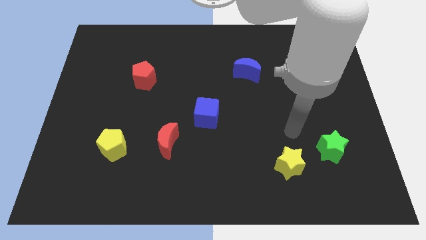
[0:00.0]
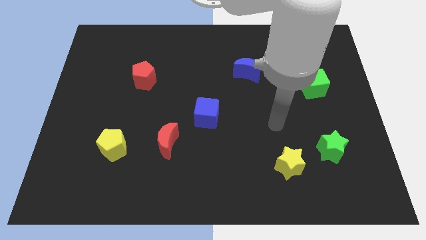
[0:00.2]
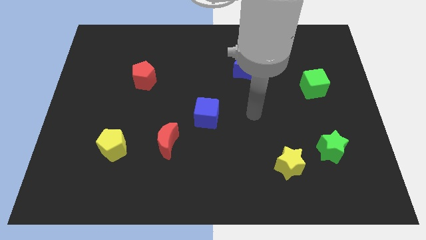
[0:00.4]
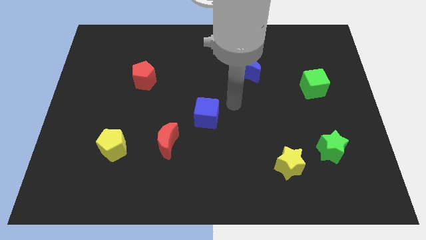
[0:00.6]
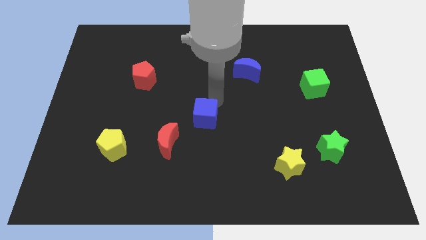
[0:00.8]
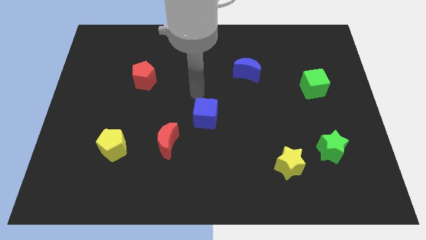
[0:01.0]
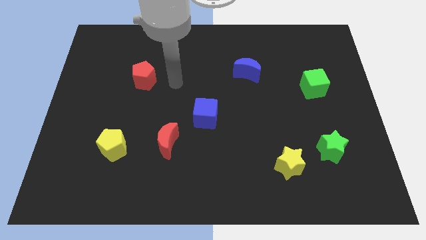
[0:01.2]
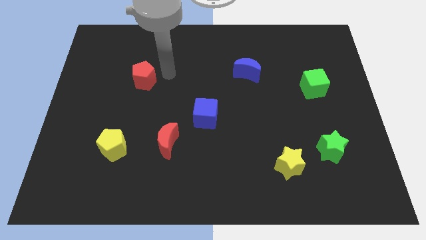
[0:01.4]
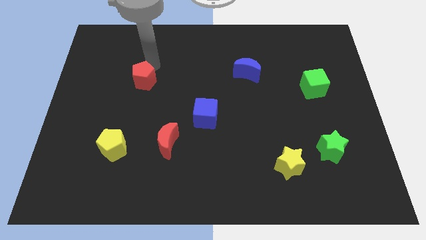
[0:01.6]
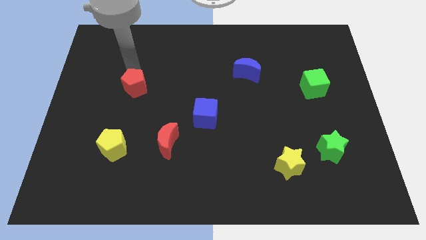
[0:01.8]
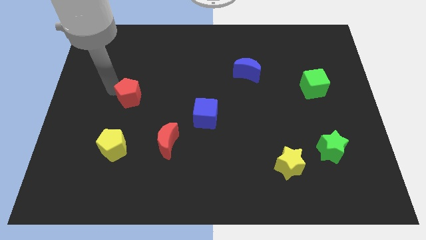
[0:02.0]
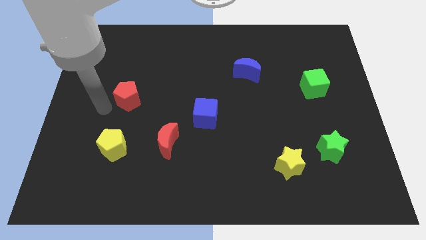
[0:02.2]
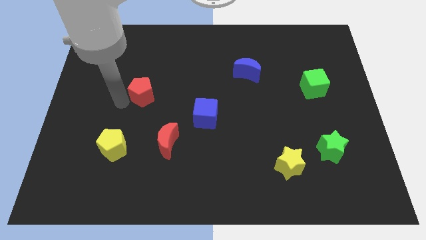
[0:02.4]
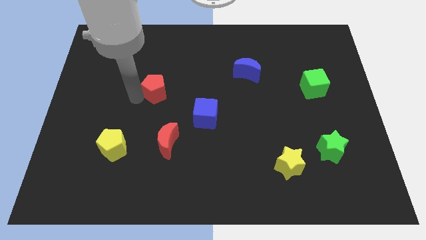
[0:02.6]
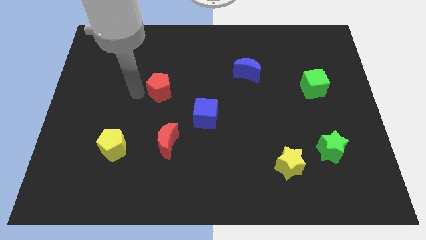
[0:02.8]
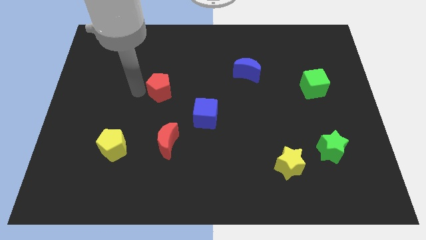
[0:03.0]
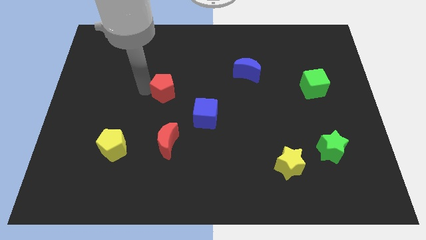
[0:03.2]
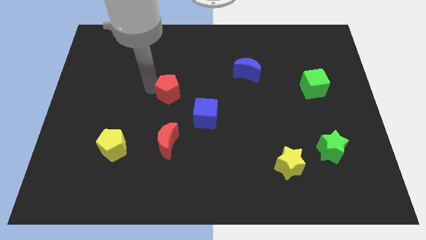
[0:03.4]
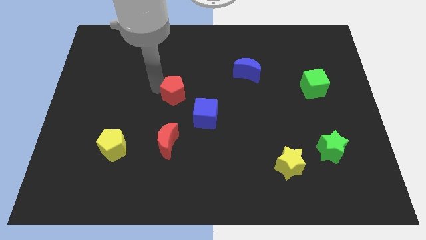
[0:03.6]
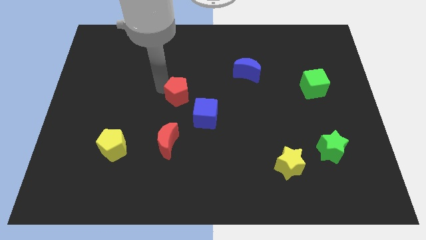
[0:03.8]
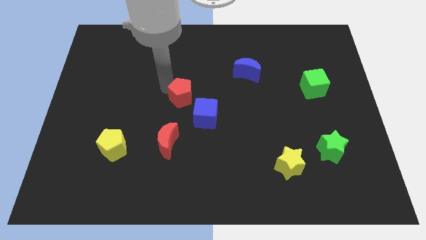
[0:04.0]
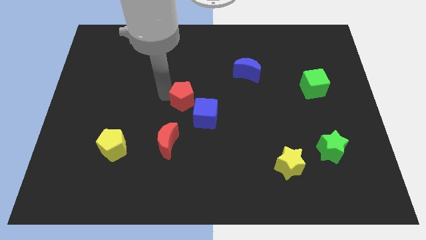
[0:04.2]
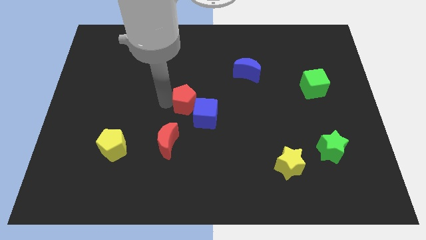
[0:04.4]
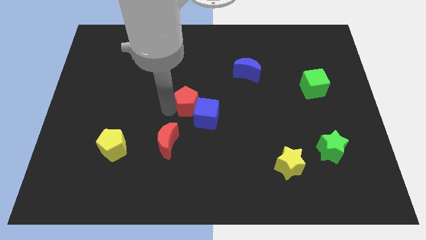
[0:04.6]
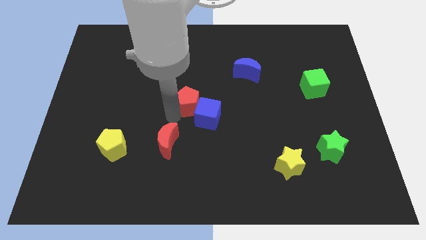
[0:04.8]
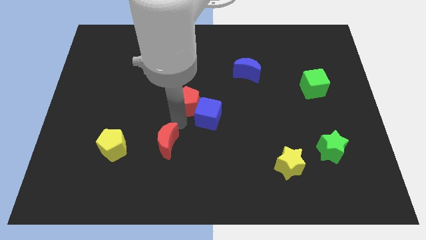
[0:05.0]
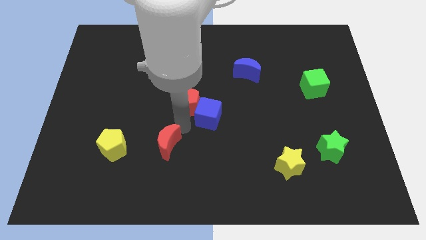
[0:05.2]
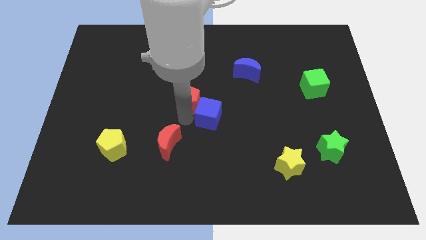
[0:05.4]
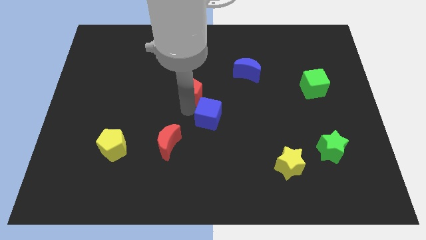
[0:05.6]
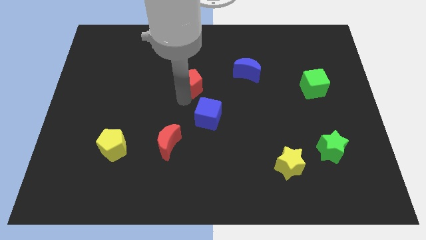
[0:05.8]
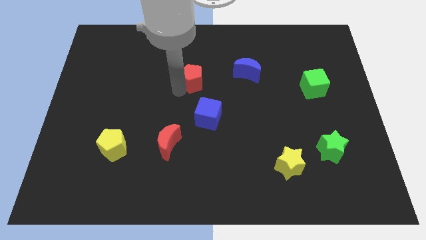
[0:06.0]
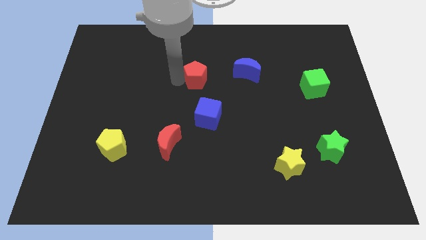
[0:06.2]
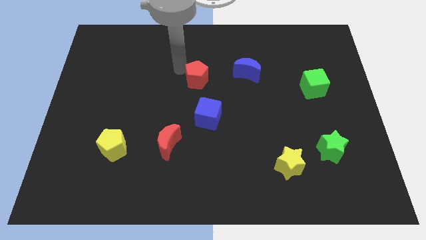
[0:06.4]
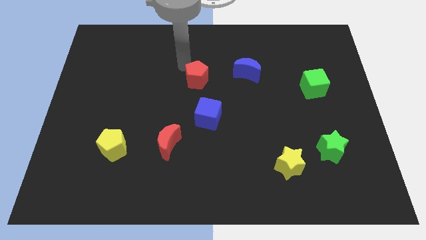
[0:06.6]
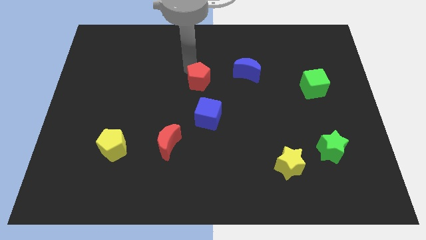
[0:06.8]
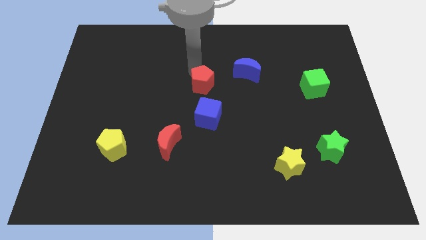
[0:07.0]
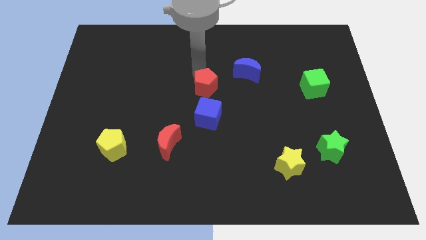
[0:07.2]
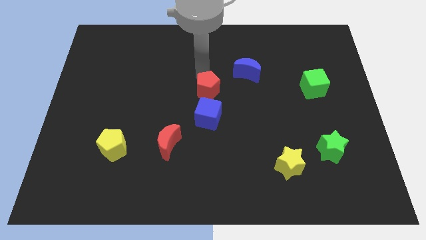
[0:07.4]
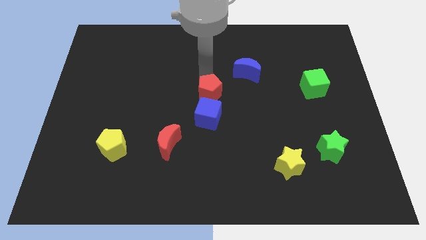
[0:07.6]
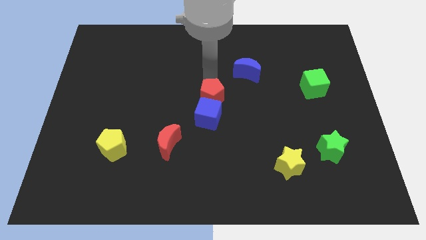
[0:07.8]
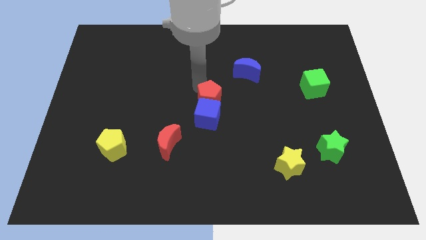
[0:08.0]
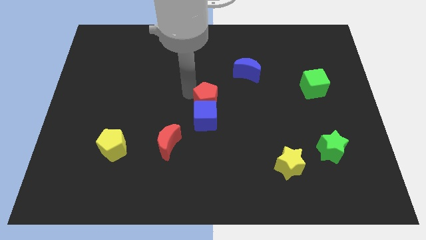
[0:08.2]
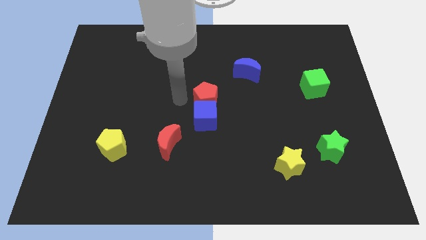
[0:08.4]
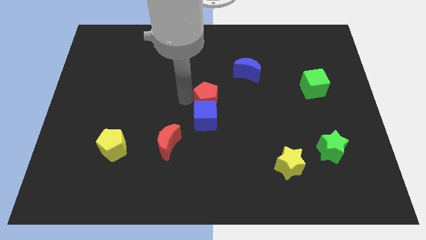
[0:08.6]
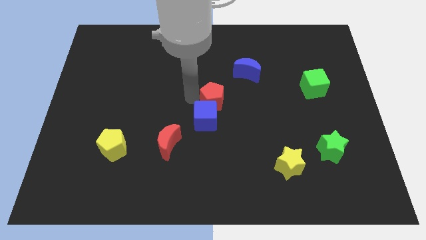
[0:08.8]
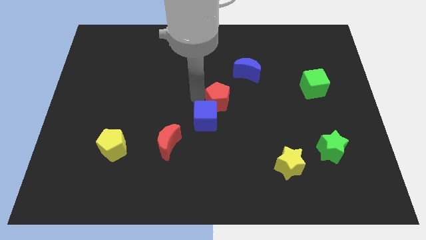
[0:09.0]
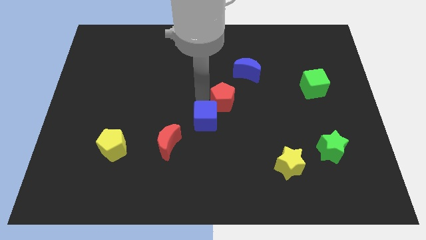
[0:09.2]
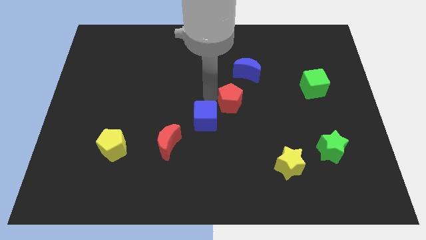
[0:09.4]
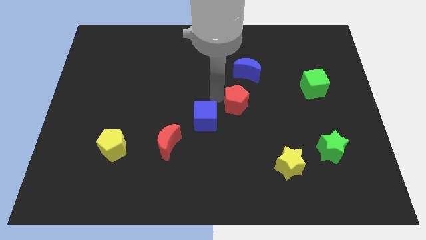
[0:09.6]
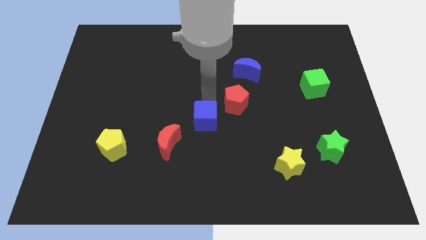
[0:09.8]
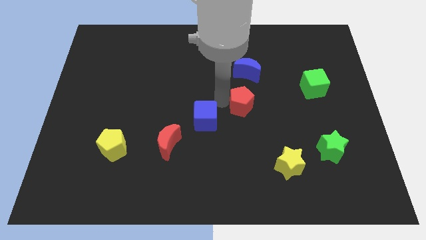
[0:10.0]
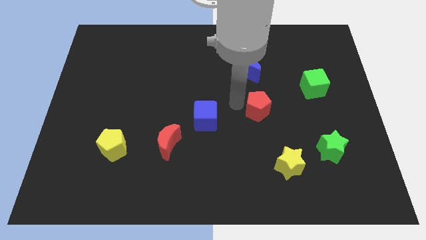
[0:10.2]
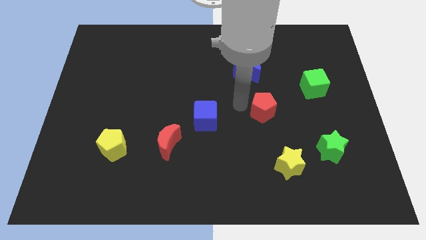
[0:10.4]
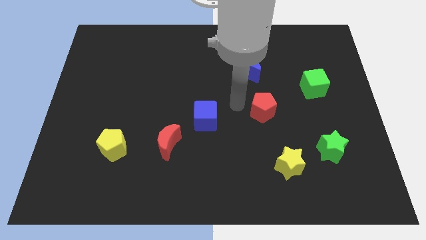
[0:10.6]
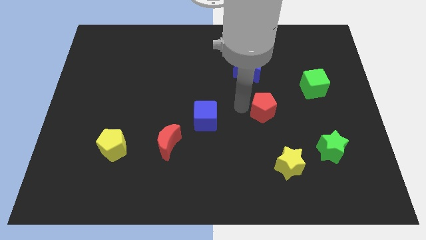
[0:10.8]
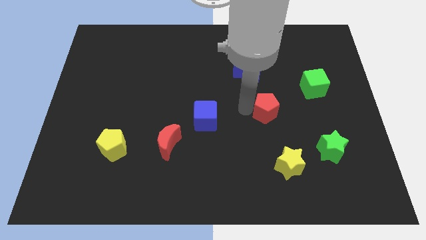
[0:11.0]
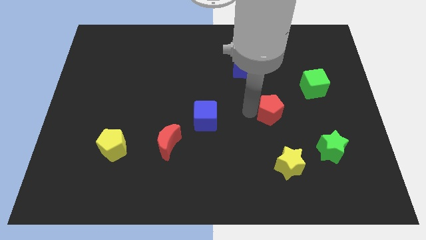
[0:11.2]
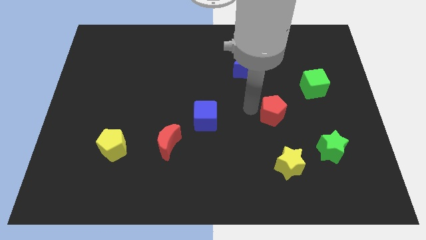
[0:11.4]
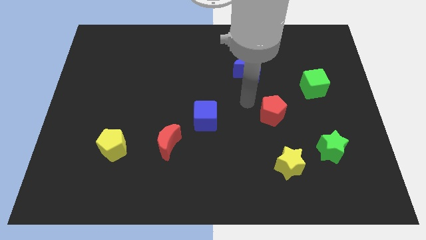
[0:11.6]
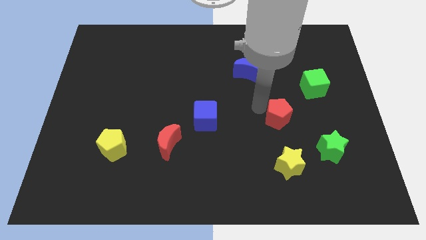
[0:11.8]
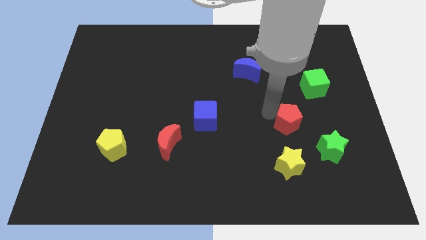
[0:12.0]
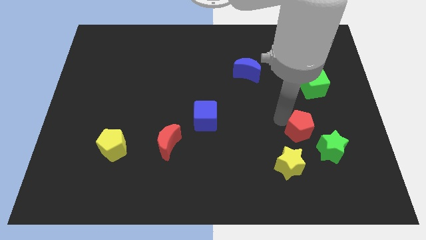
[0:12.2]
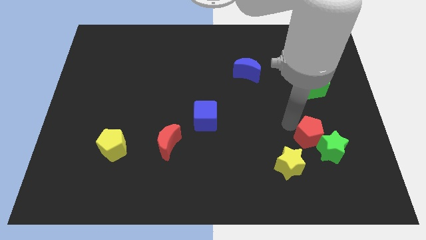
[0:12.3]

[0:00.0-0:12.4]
move the red pentagon to the green star
